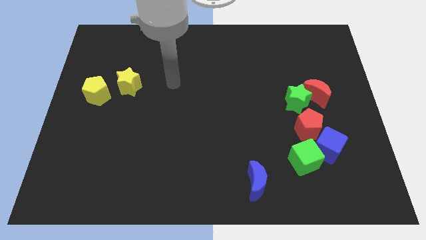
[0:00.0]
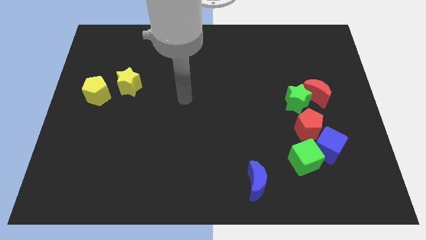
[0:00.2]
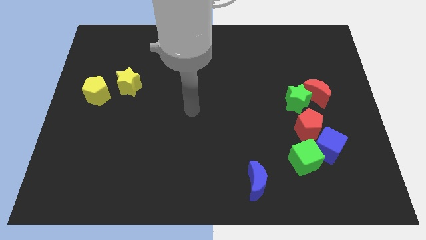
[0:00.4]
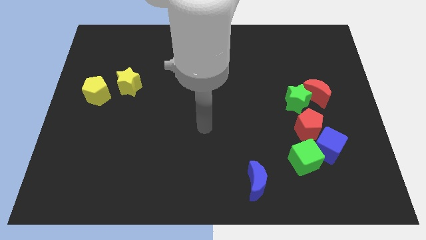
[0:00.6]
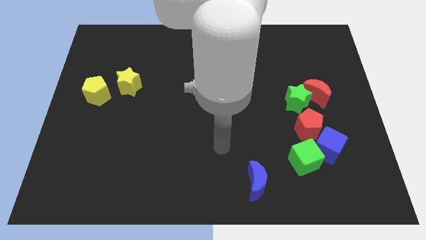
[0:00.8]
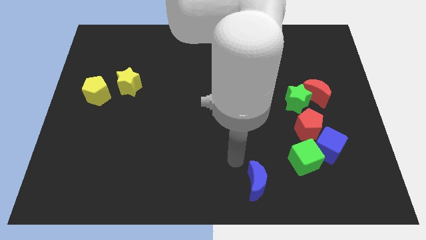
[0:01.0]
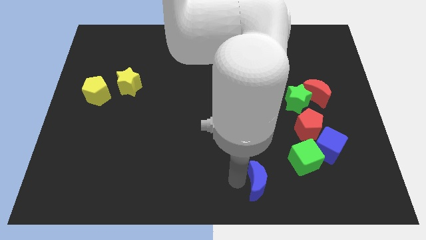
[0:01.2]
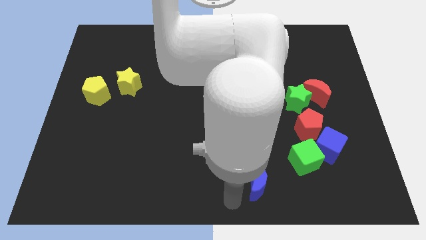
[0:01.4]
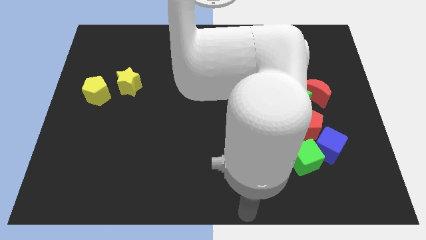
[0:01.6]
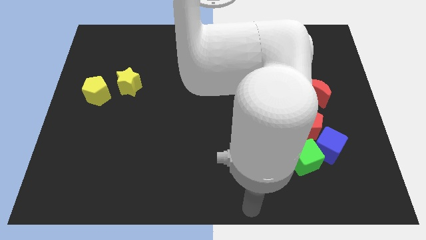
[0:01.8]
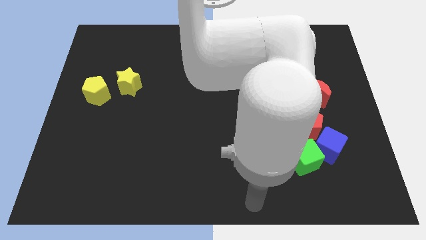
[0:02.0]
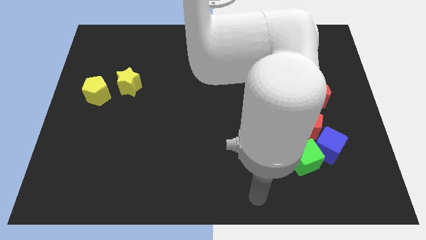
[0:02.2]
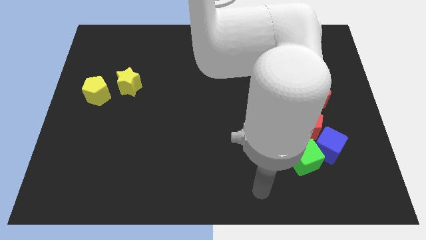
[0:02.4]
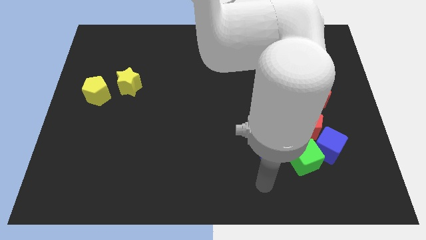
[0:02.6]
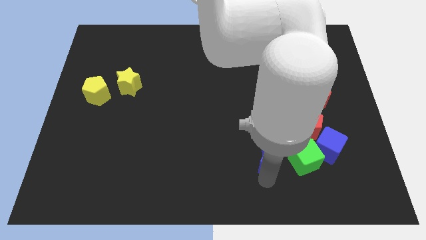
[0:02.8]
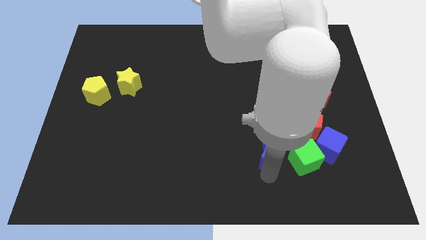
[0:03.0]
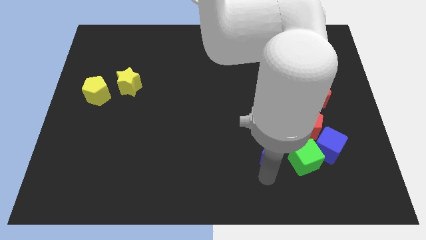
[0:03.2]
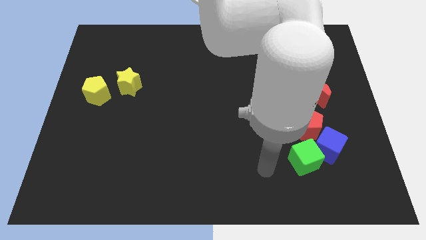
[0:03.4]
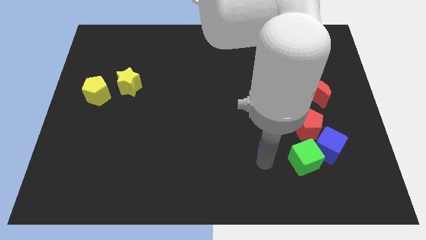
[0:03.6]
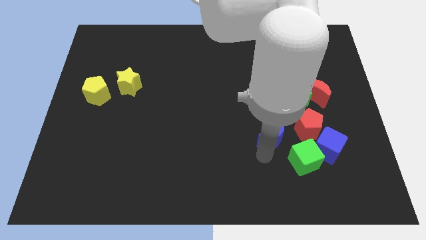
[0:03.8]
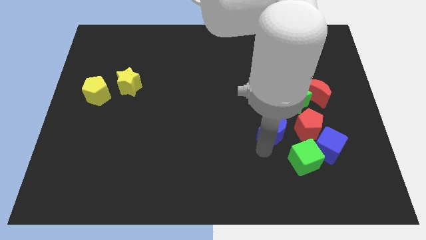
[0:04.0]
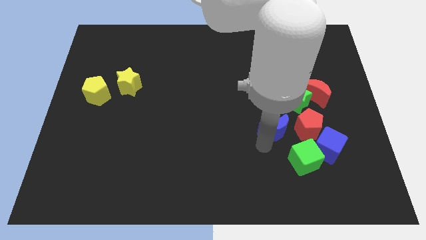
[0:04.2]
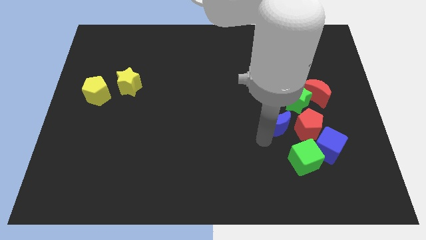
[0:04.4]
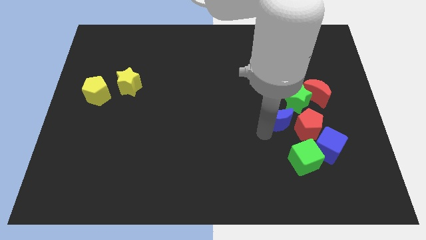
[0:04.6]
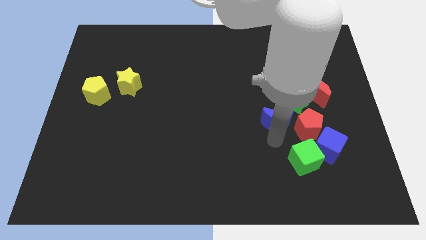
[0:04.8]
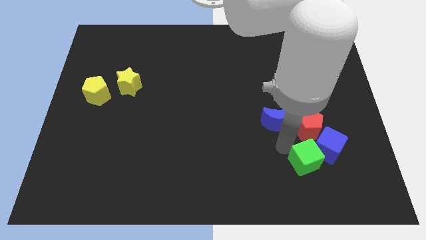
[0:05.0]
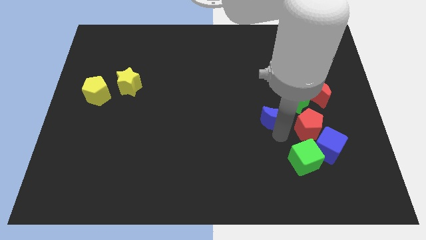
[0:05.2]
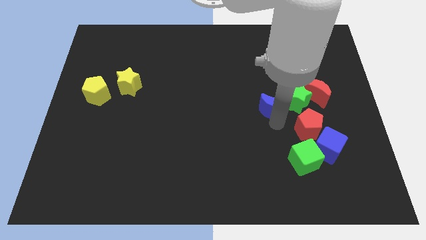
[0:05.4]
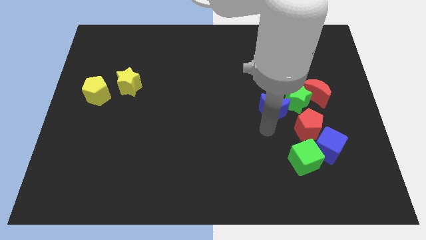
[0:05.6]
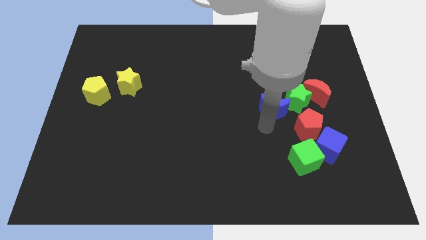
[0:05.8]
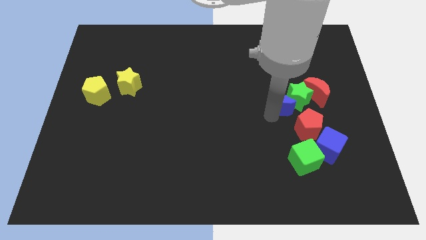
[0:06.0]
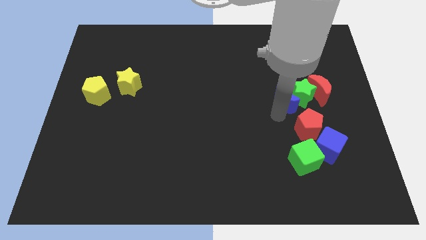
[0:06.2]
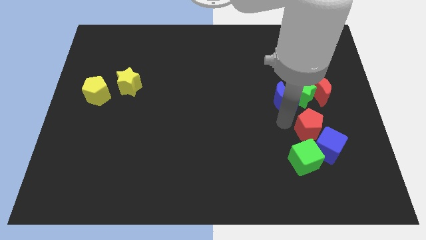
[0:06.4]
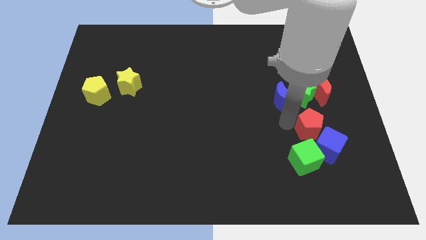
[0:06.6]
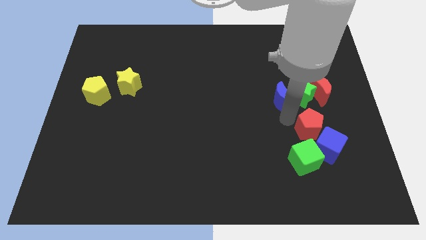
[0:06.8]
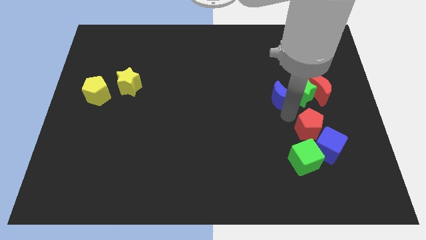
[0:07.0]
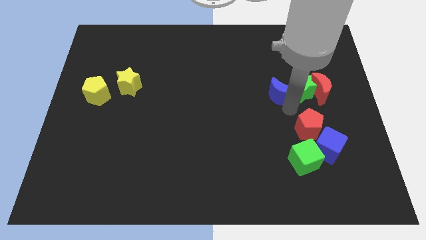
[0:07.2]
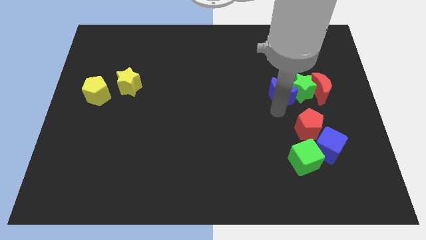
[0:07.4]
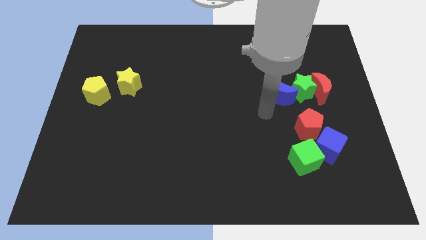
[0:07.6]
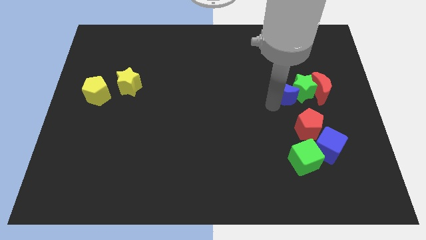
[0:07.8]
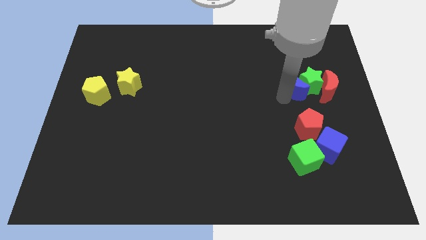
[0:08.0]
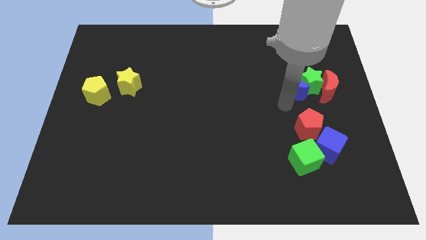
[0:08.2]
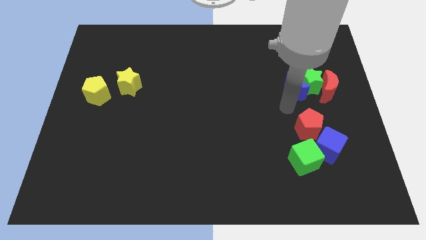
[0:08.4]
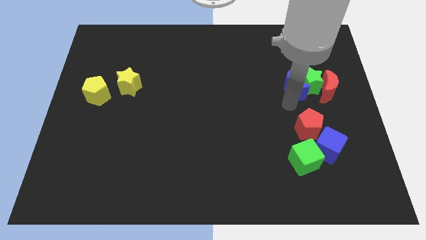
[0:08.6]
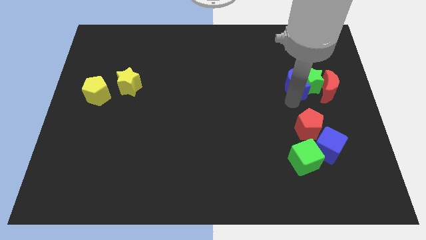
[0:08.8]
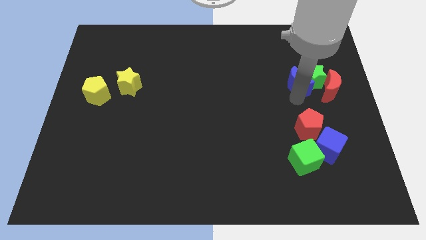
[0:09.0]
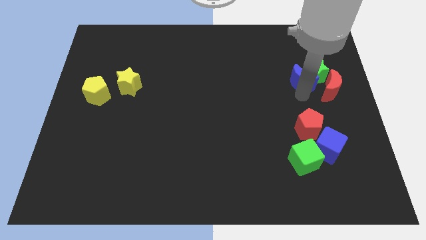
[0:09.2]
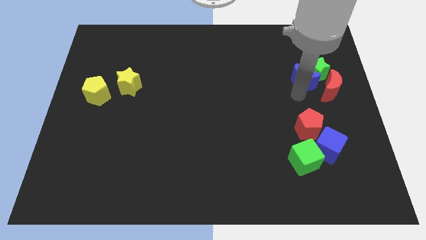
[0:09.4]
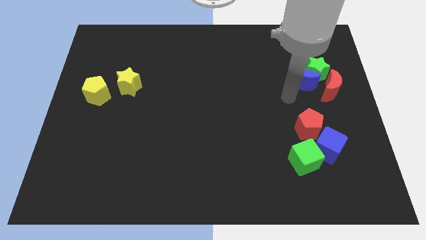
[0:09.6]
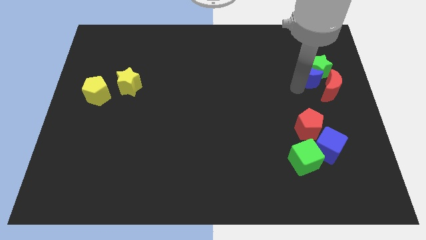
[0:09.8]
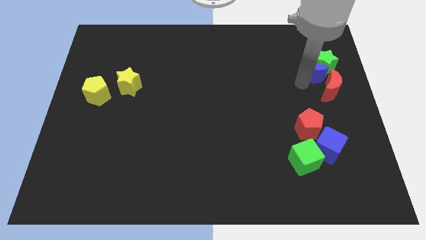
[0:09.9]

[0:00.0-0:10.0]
push the blue moon above the red moon

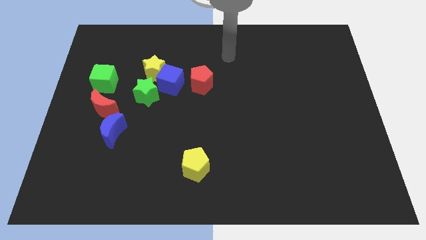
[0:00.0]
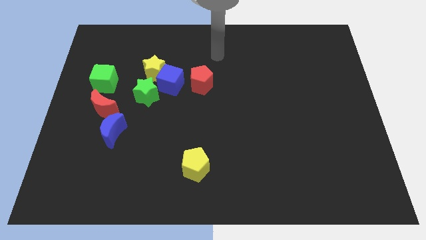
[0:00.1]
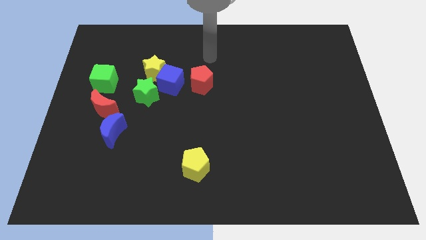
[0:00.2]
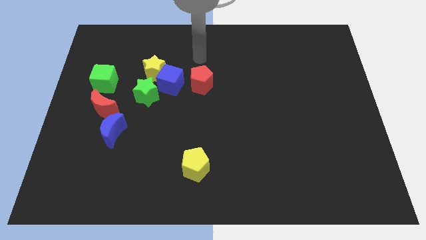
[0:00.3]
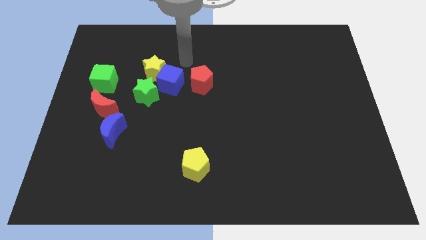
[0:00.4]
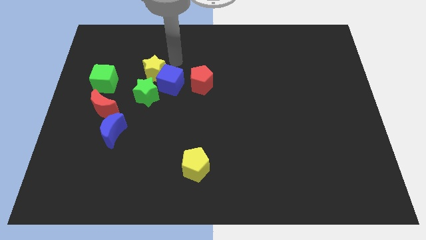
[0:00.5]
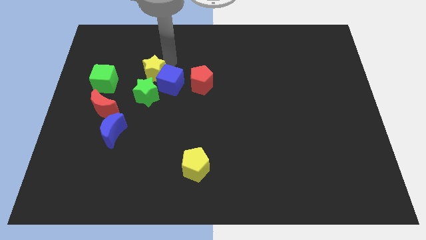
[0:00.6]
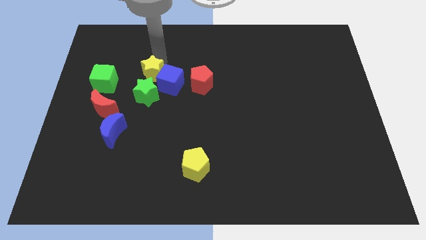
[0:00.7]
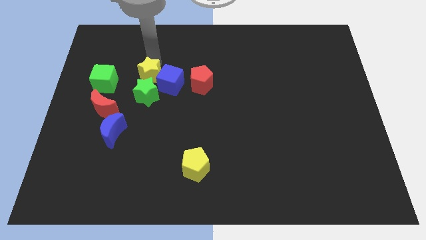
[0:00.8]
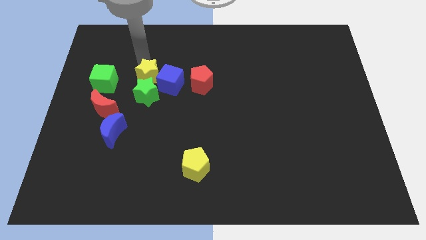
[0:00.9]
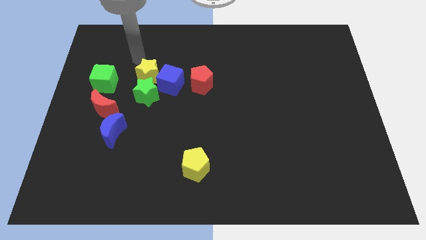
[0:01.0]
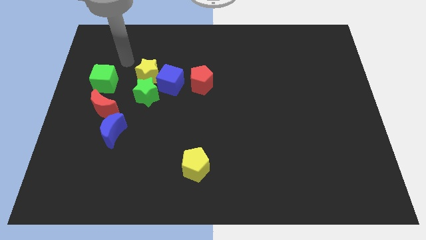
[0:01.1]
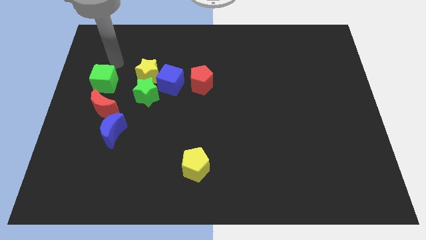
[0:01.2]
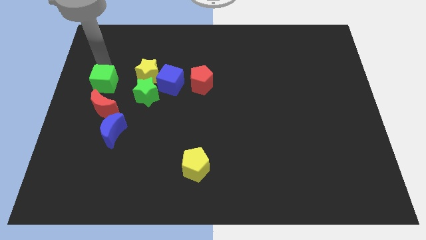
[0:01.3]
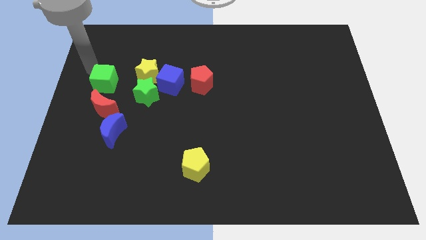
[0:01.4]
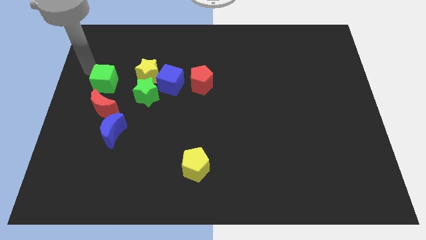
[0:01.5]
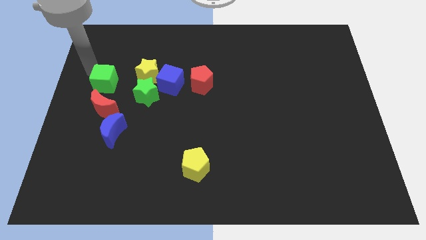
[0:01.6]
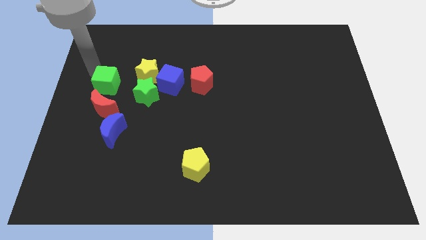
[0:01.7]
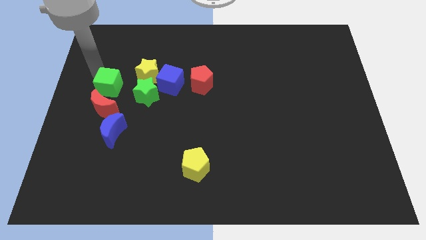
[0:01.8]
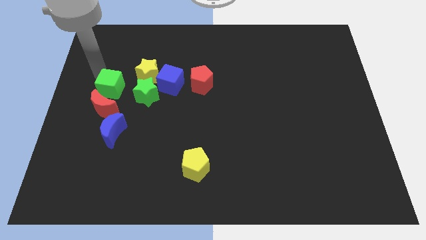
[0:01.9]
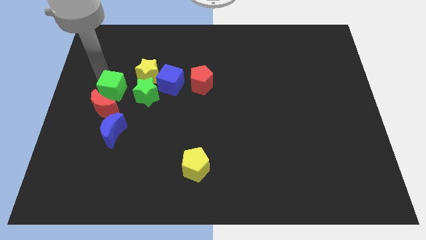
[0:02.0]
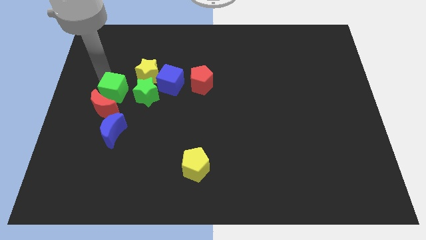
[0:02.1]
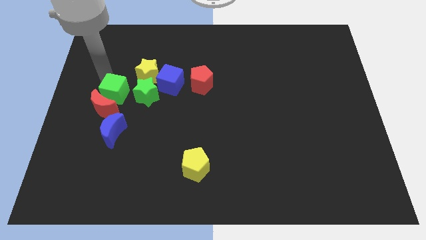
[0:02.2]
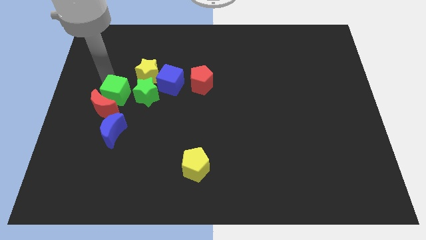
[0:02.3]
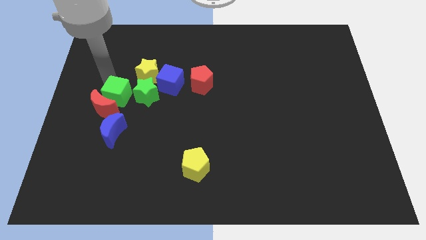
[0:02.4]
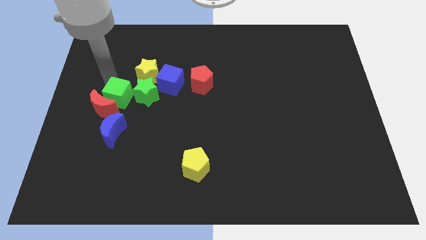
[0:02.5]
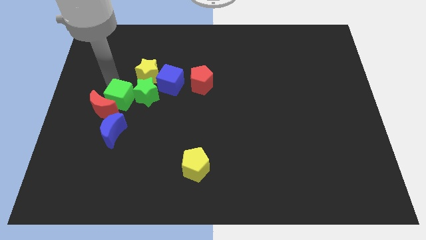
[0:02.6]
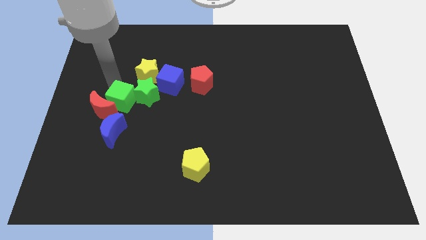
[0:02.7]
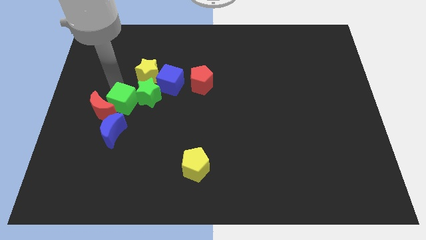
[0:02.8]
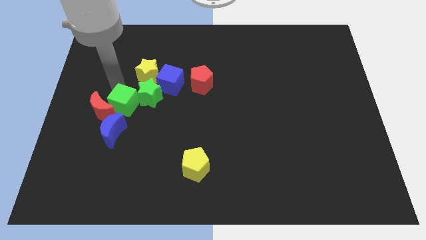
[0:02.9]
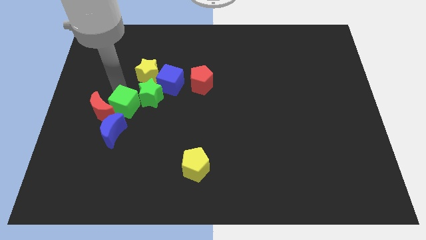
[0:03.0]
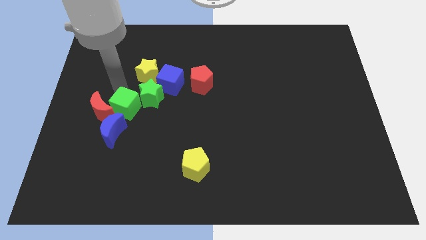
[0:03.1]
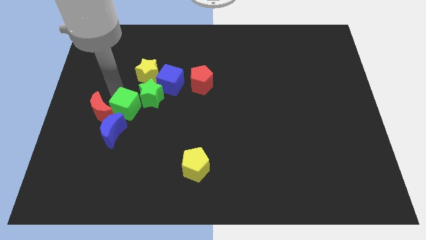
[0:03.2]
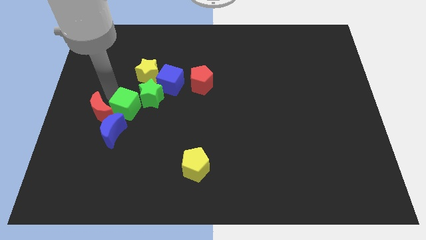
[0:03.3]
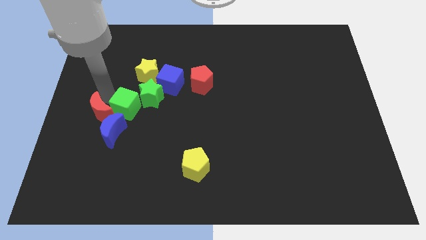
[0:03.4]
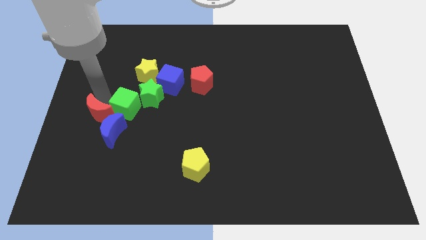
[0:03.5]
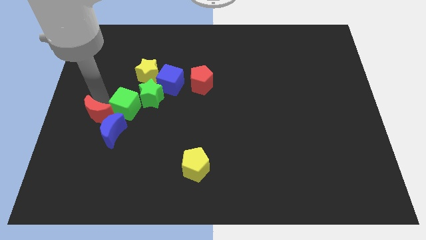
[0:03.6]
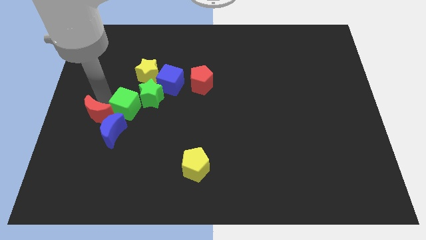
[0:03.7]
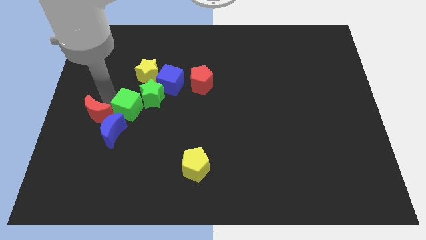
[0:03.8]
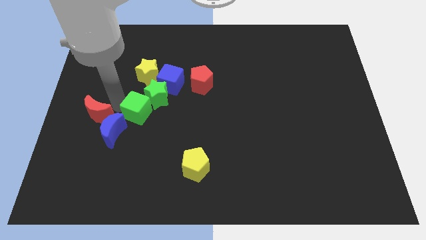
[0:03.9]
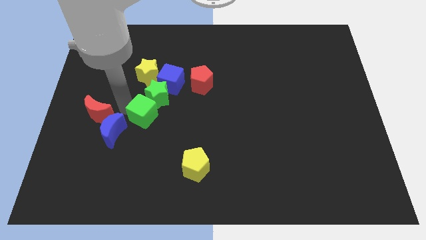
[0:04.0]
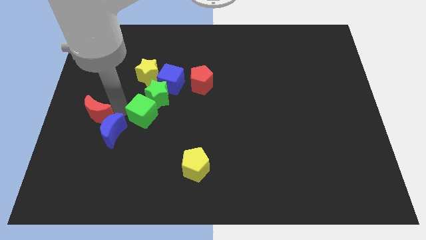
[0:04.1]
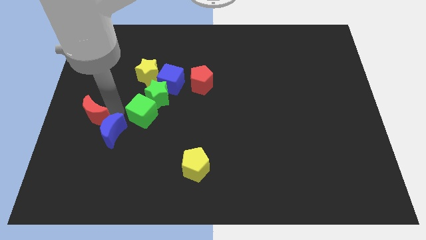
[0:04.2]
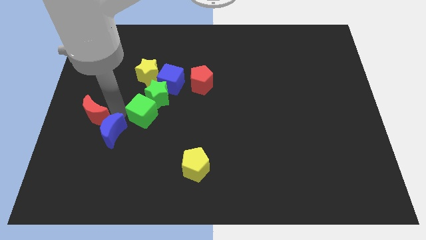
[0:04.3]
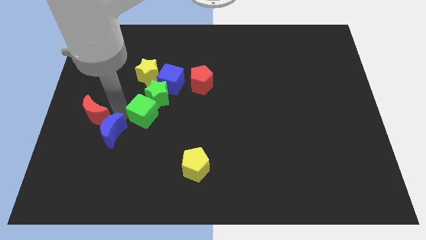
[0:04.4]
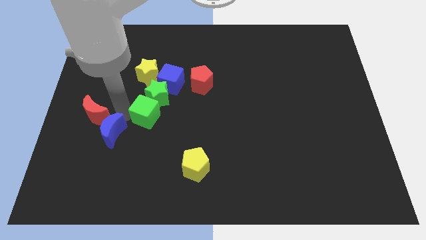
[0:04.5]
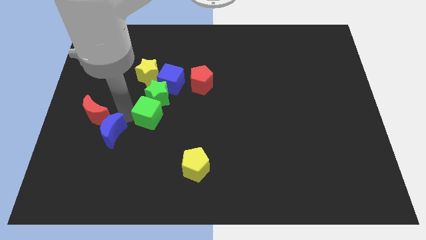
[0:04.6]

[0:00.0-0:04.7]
put the green cube to the bottom of the blue cube
